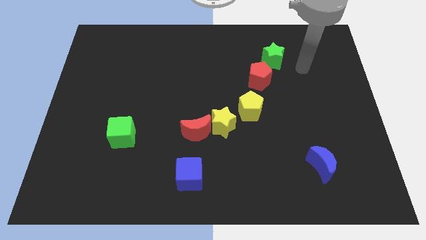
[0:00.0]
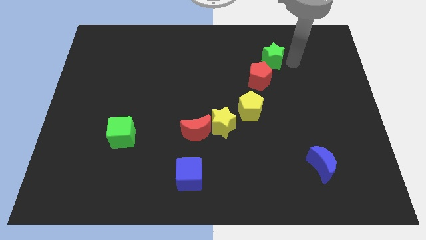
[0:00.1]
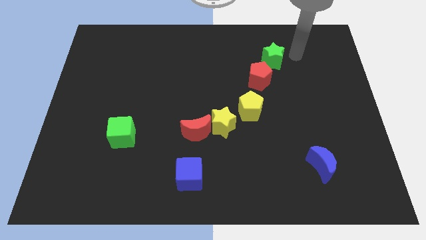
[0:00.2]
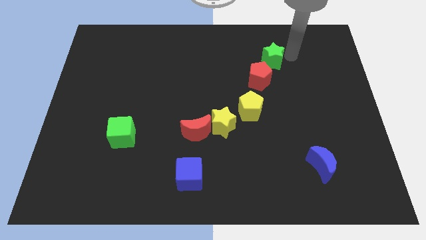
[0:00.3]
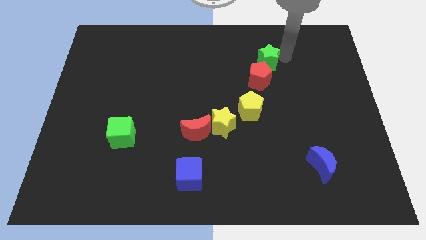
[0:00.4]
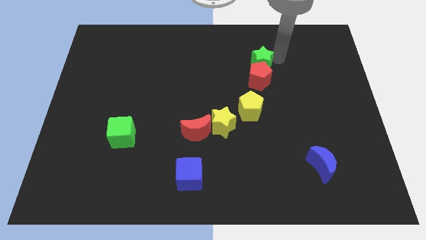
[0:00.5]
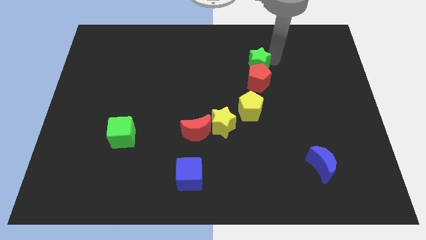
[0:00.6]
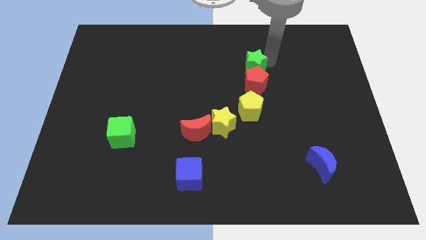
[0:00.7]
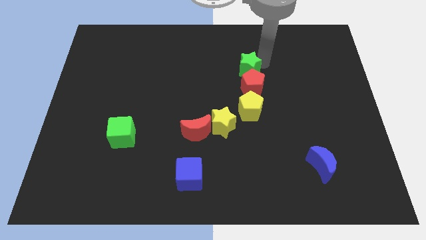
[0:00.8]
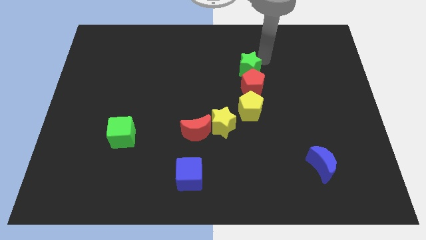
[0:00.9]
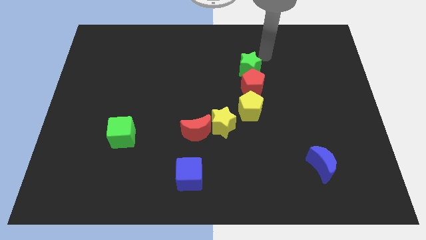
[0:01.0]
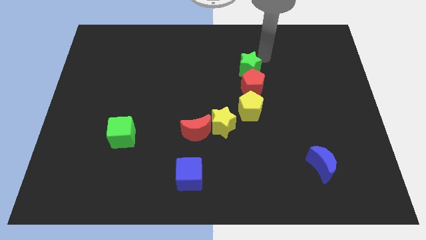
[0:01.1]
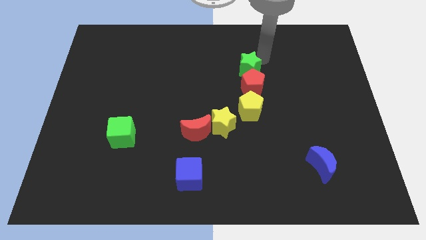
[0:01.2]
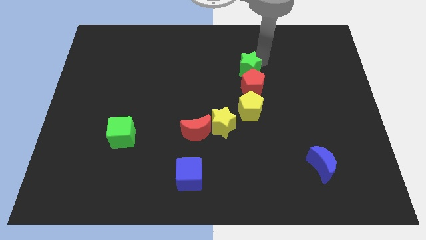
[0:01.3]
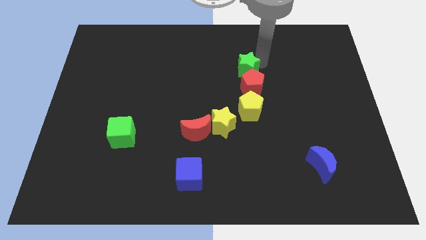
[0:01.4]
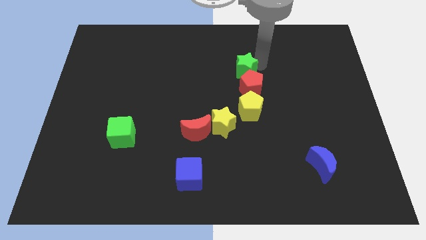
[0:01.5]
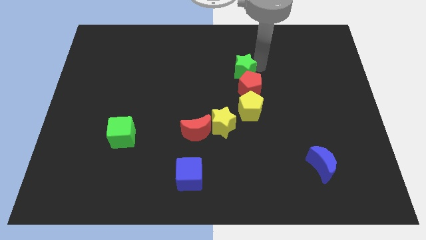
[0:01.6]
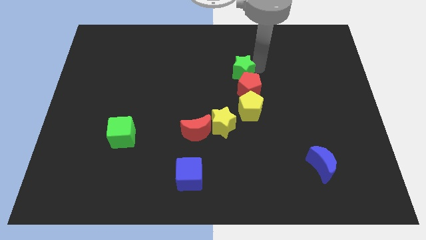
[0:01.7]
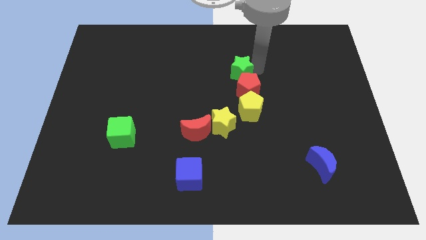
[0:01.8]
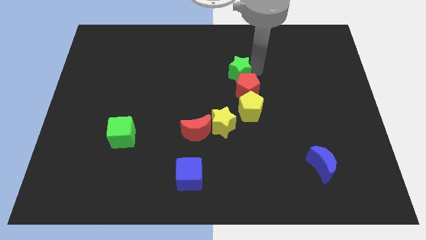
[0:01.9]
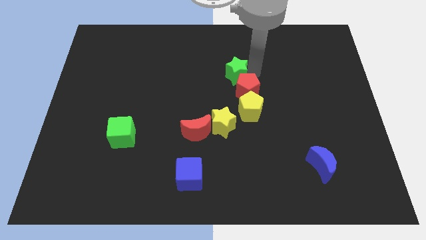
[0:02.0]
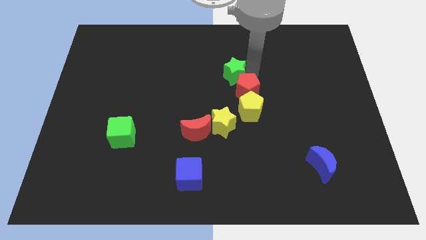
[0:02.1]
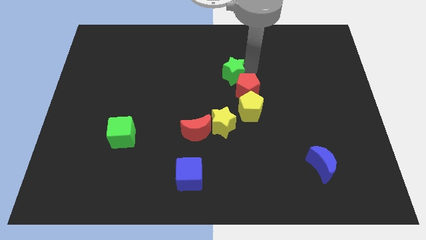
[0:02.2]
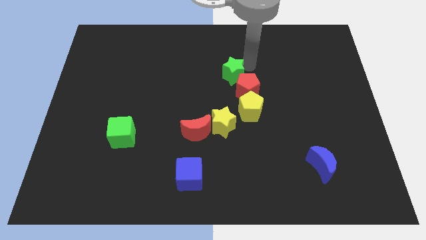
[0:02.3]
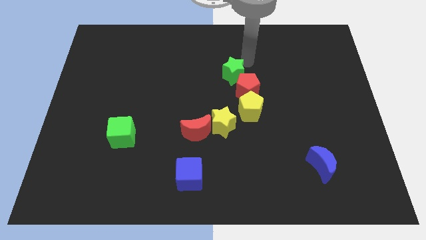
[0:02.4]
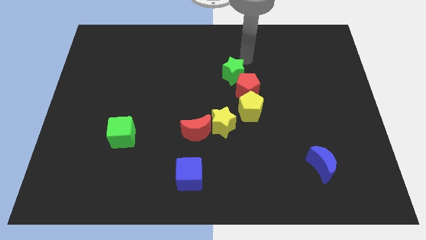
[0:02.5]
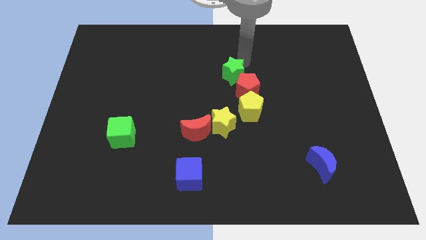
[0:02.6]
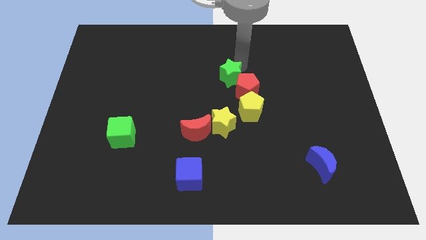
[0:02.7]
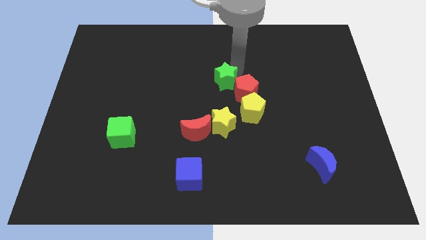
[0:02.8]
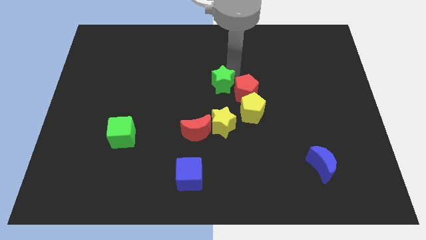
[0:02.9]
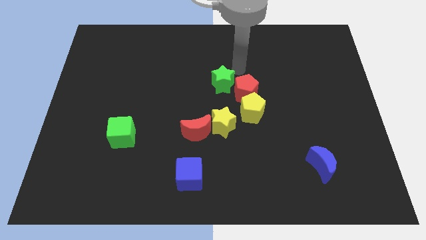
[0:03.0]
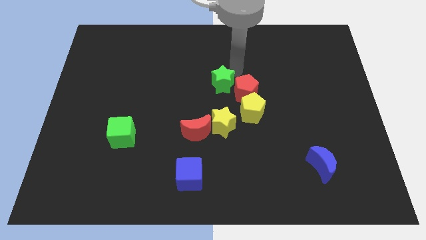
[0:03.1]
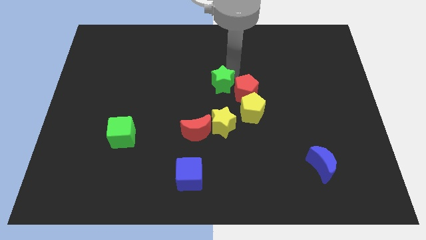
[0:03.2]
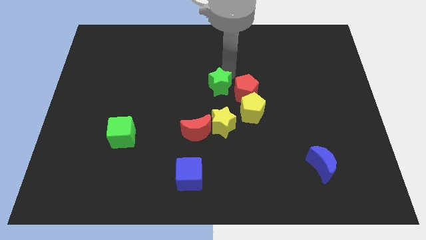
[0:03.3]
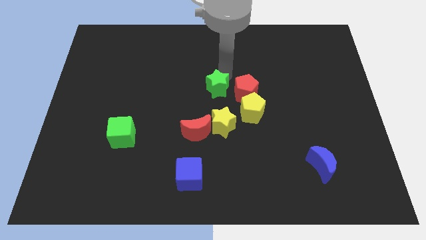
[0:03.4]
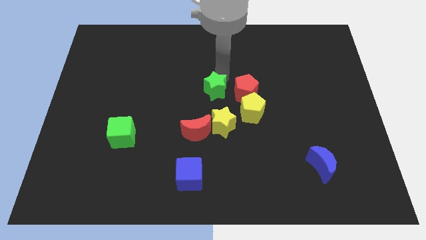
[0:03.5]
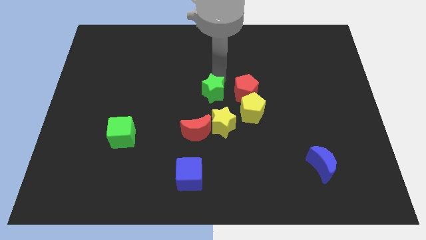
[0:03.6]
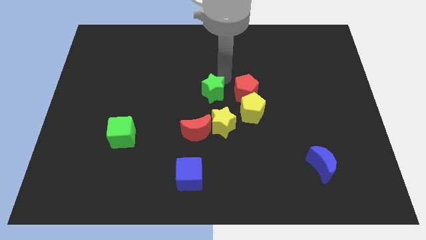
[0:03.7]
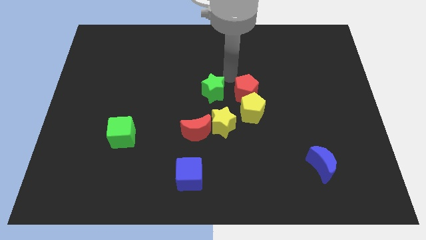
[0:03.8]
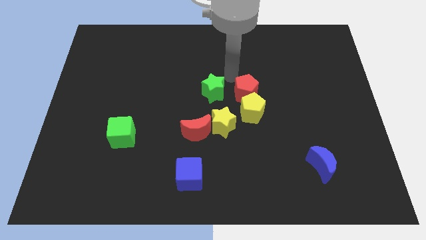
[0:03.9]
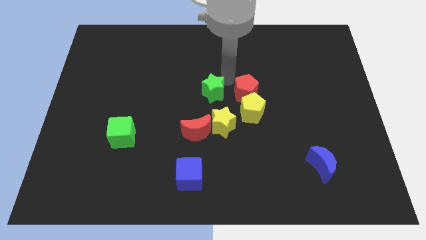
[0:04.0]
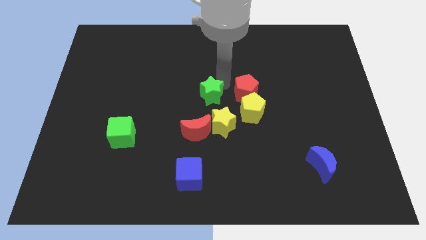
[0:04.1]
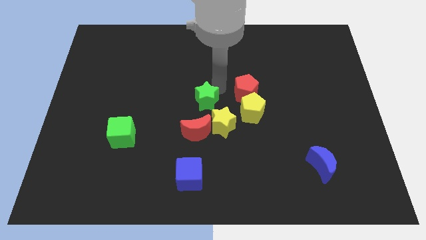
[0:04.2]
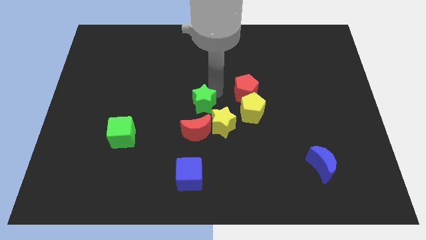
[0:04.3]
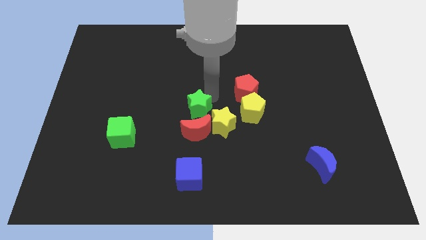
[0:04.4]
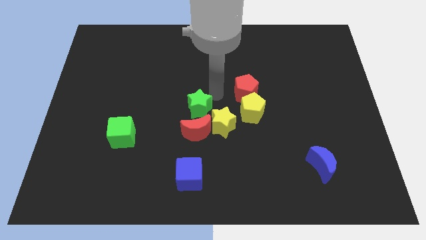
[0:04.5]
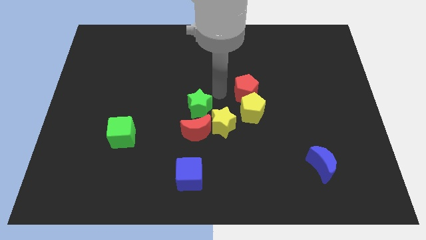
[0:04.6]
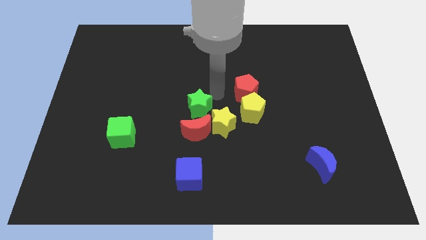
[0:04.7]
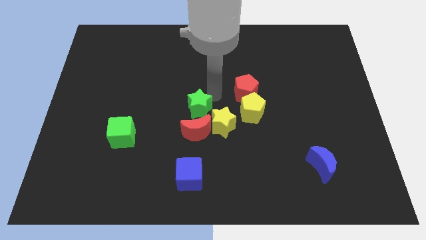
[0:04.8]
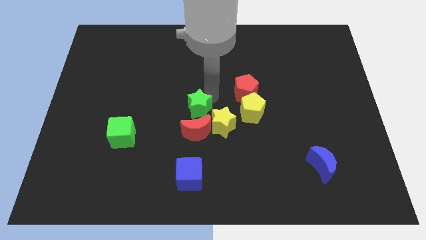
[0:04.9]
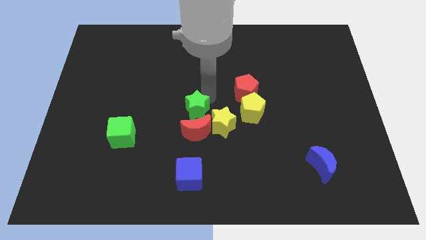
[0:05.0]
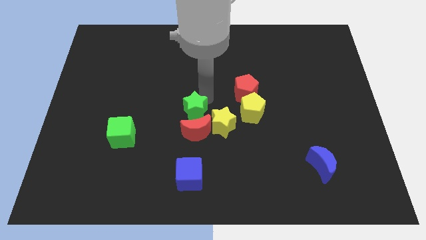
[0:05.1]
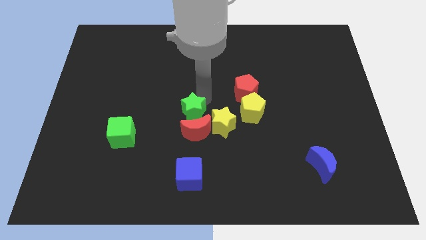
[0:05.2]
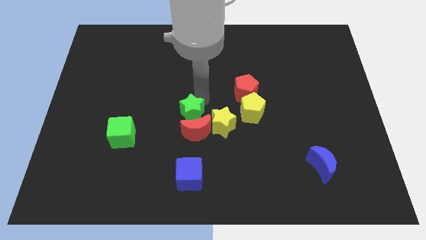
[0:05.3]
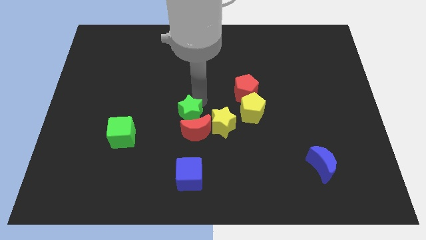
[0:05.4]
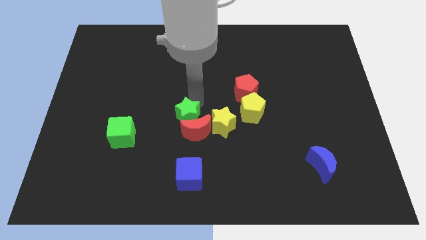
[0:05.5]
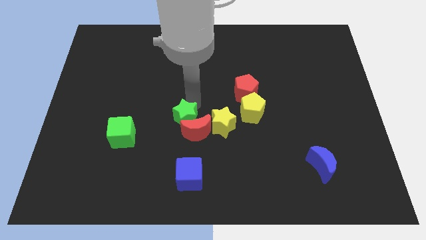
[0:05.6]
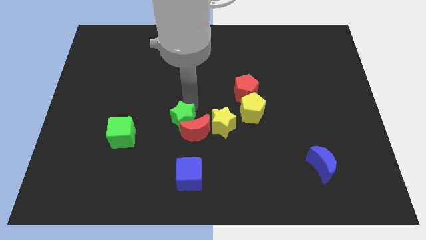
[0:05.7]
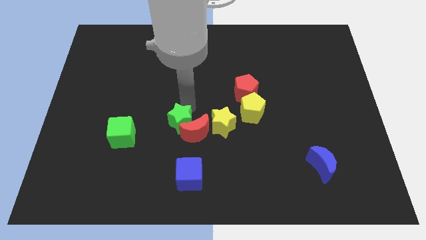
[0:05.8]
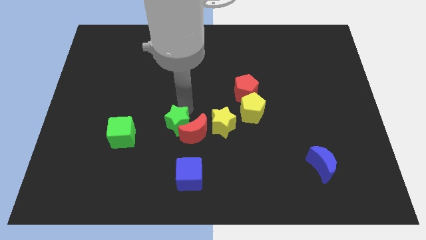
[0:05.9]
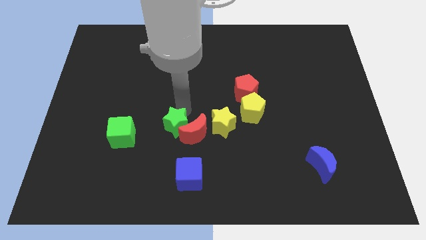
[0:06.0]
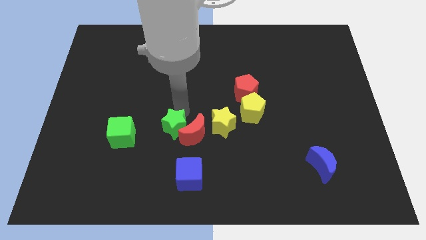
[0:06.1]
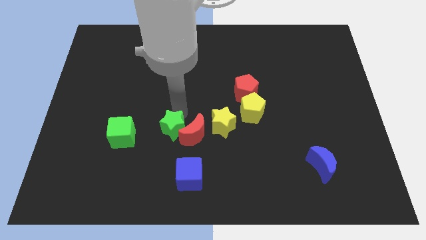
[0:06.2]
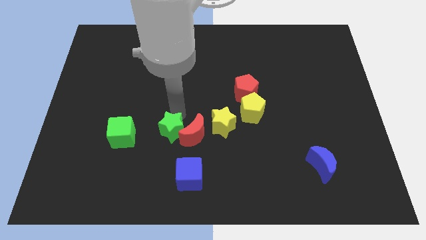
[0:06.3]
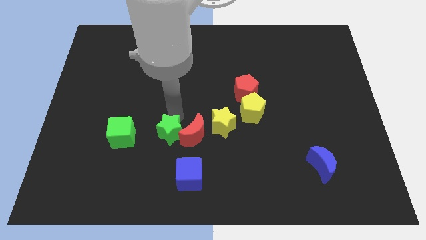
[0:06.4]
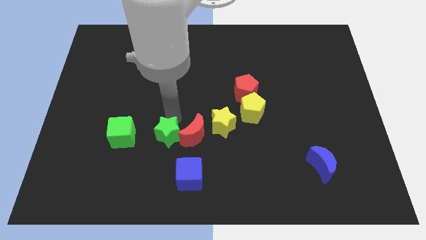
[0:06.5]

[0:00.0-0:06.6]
push the green star to the top left side of the blue cube

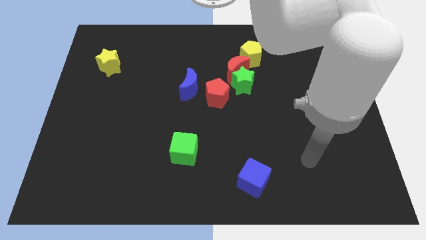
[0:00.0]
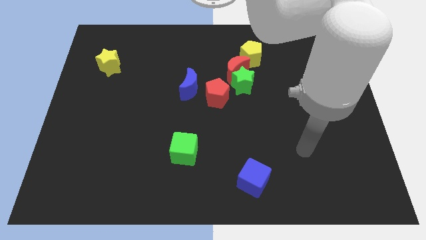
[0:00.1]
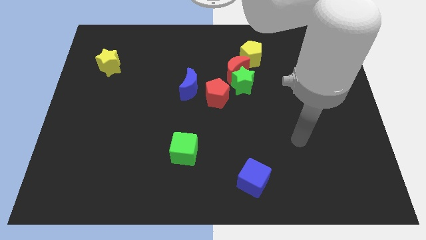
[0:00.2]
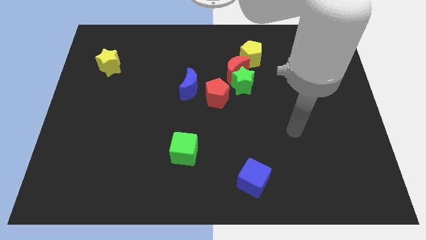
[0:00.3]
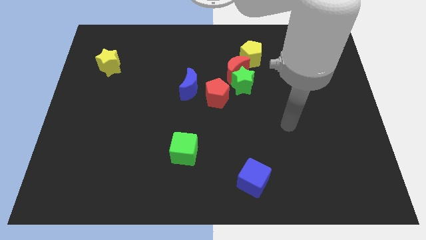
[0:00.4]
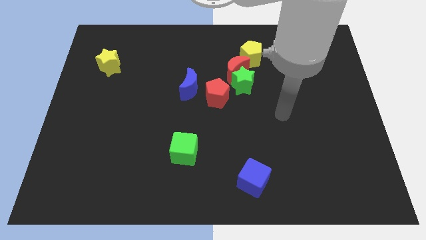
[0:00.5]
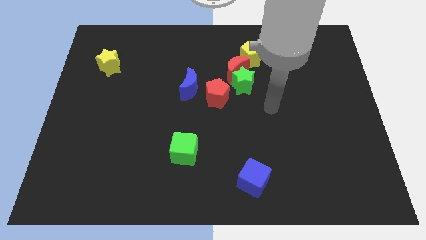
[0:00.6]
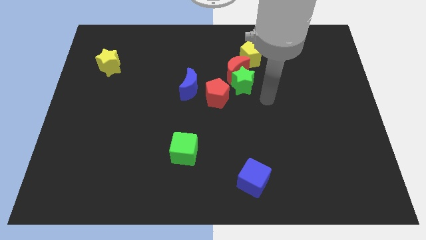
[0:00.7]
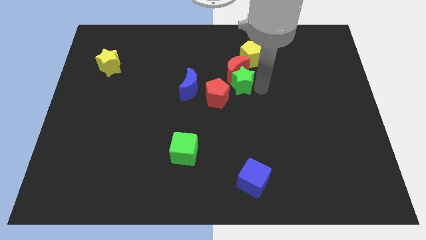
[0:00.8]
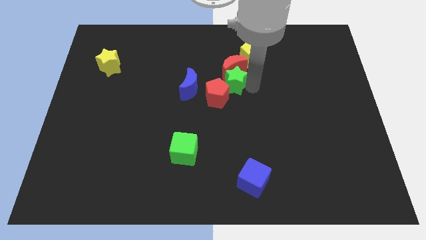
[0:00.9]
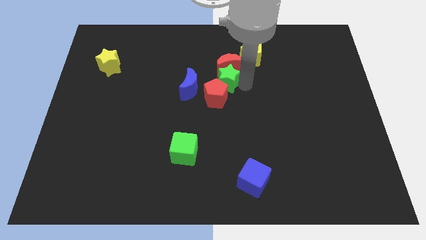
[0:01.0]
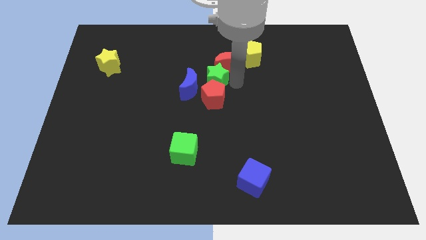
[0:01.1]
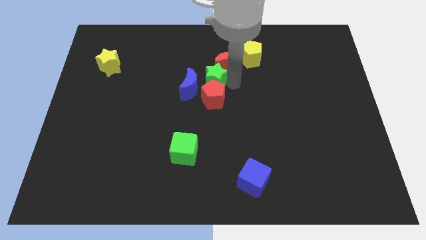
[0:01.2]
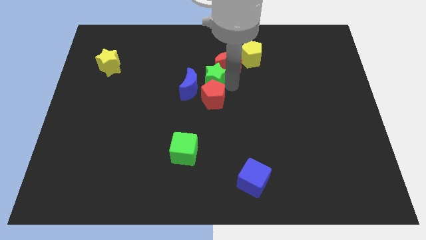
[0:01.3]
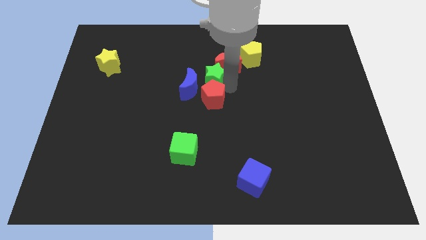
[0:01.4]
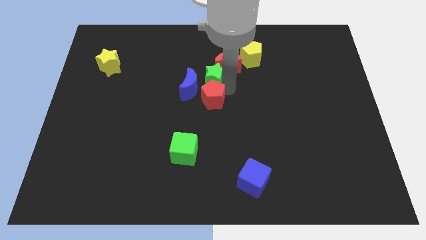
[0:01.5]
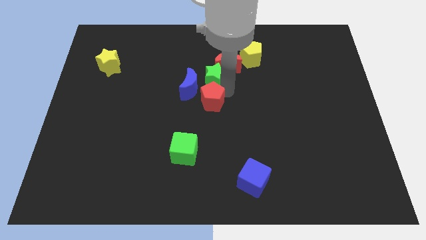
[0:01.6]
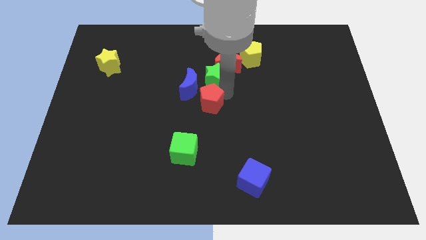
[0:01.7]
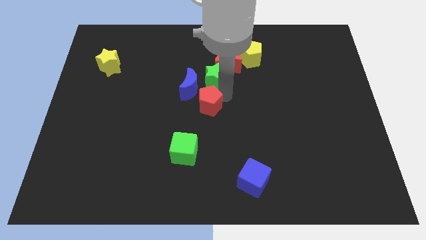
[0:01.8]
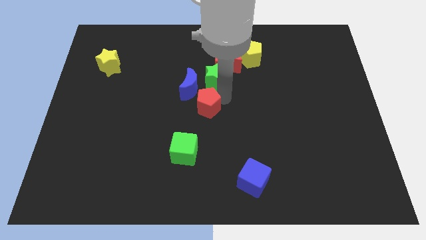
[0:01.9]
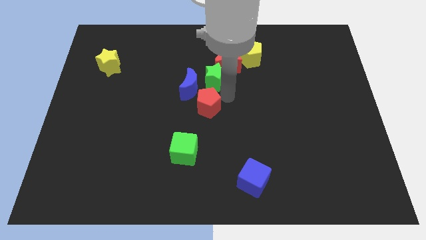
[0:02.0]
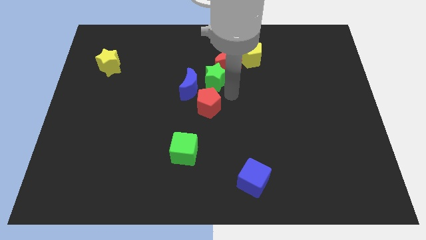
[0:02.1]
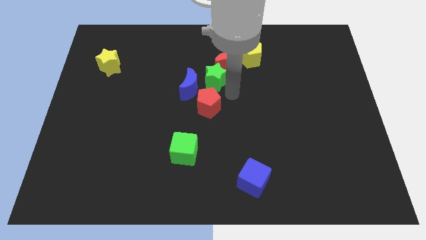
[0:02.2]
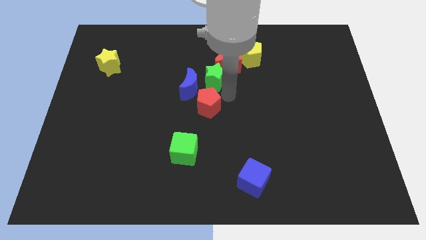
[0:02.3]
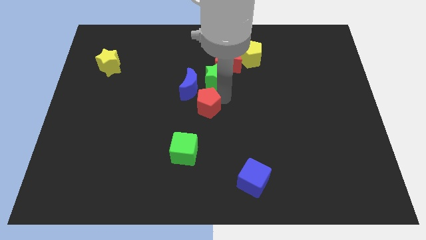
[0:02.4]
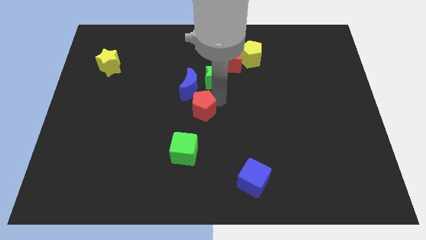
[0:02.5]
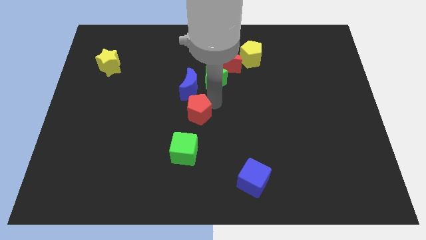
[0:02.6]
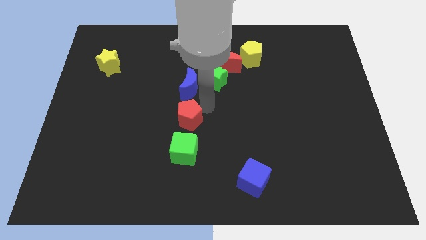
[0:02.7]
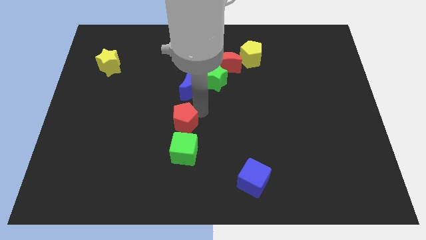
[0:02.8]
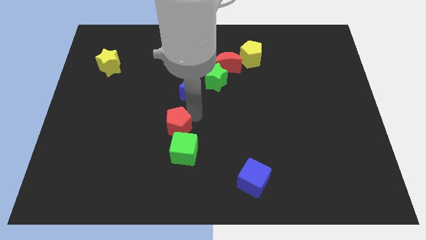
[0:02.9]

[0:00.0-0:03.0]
slide the red pentagon to the top left of the green cube
